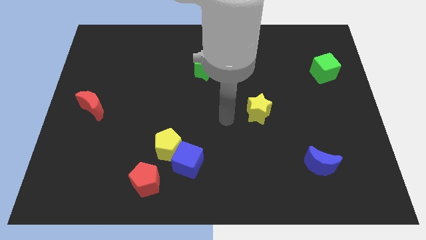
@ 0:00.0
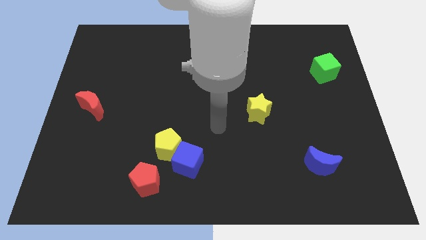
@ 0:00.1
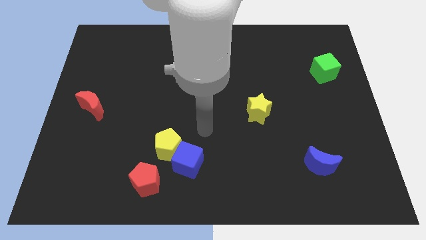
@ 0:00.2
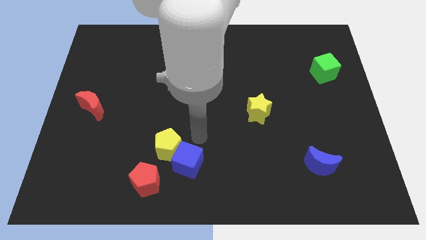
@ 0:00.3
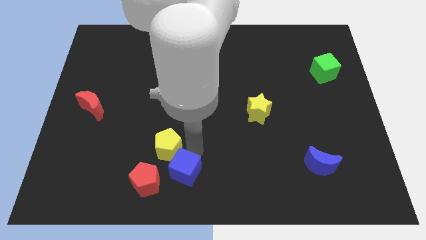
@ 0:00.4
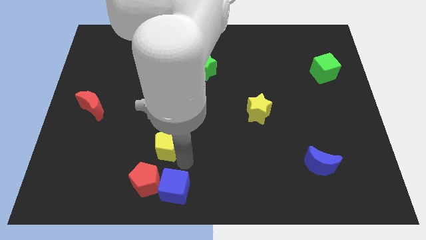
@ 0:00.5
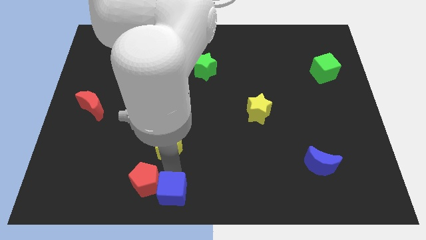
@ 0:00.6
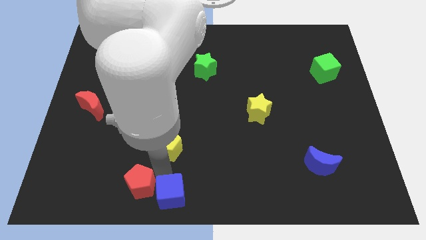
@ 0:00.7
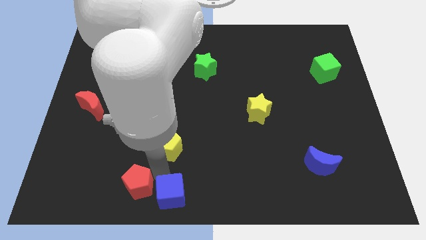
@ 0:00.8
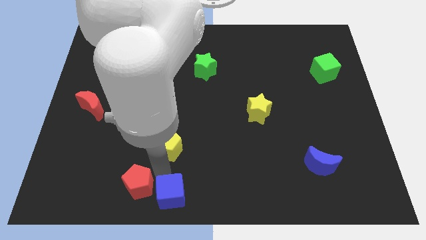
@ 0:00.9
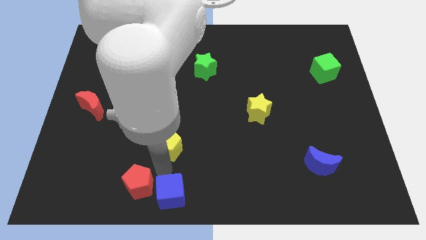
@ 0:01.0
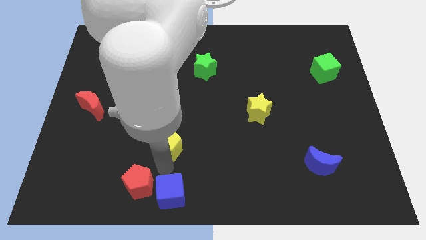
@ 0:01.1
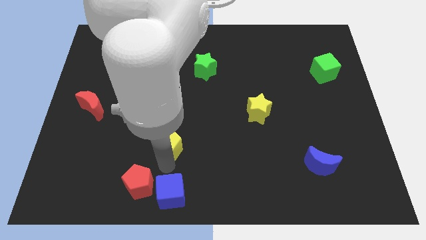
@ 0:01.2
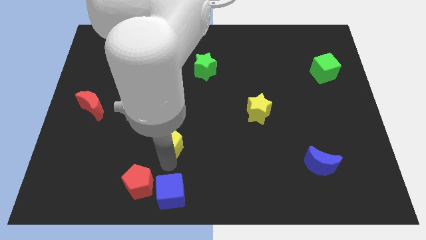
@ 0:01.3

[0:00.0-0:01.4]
move the yellow pentagon away from the blue cube and red pentagon

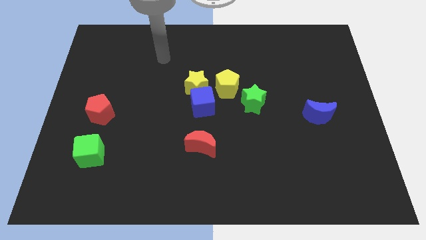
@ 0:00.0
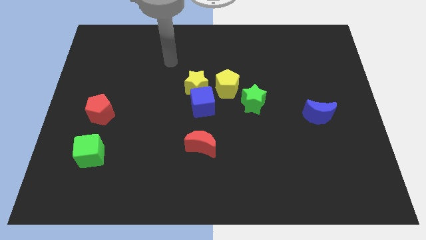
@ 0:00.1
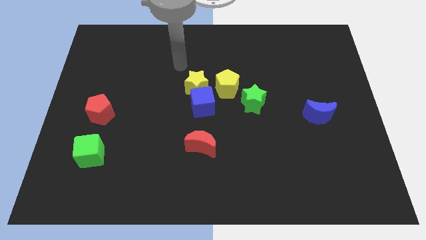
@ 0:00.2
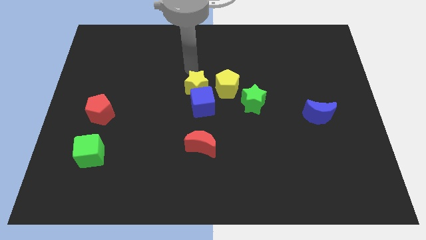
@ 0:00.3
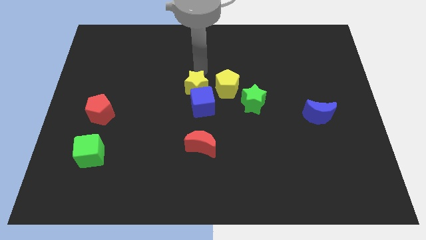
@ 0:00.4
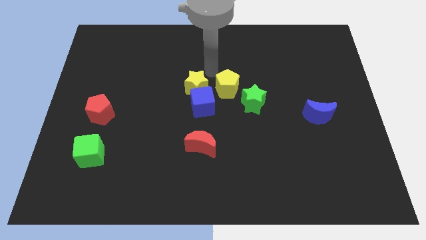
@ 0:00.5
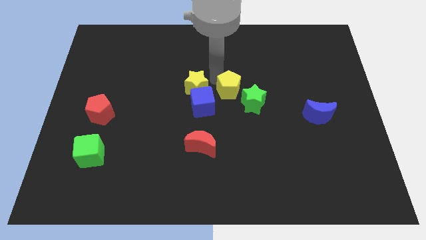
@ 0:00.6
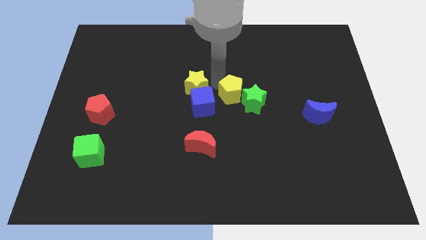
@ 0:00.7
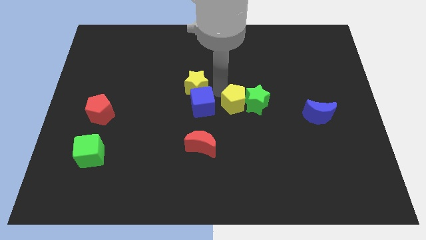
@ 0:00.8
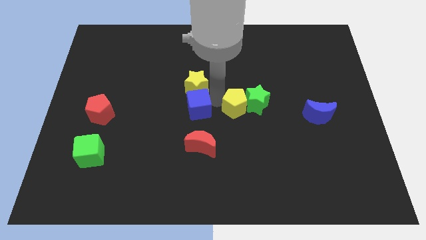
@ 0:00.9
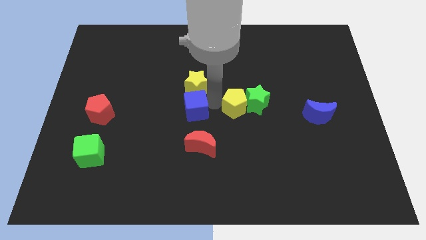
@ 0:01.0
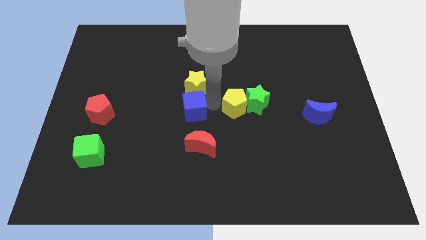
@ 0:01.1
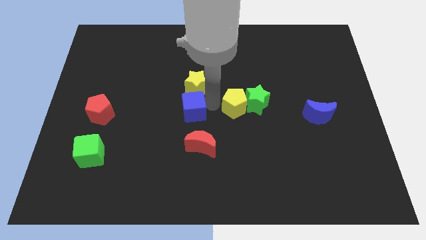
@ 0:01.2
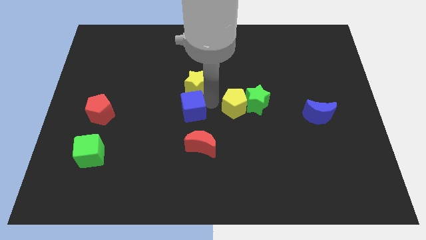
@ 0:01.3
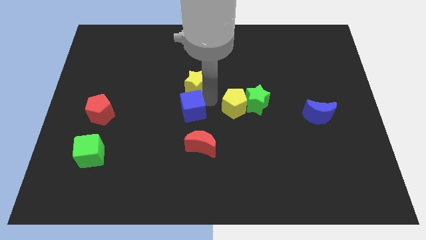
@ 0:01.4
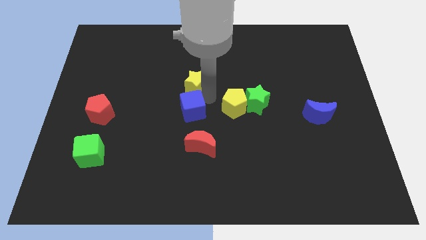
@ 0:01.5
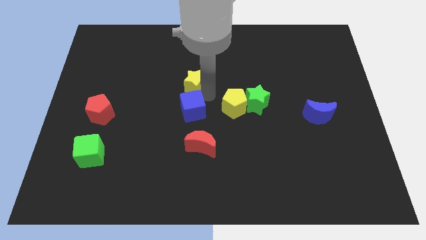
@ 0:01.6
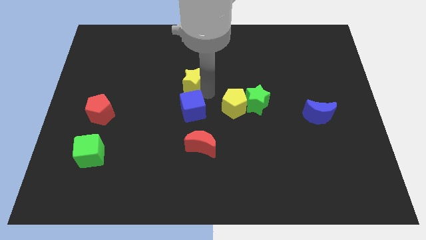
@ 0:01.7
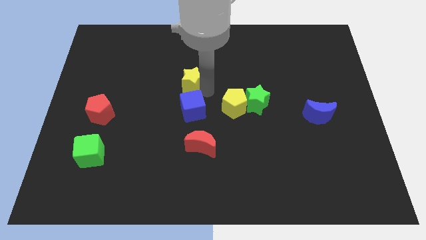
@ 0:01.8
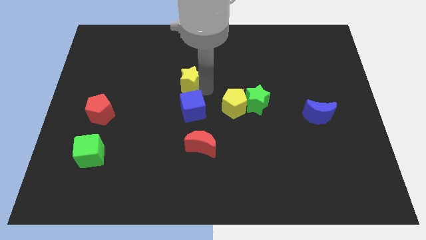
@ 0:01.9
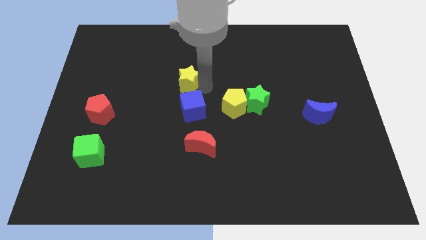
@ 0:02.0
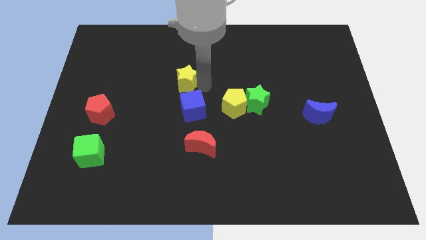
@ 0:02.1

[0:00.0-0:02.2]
separate the yellow star from the blue cube and yellow pentagon

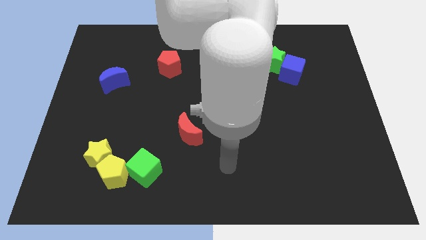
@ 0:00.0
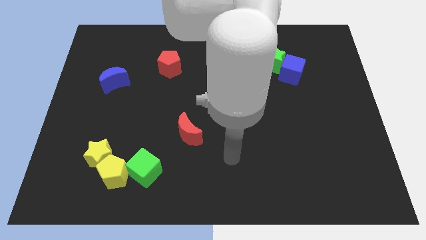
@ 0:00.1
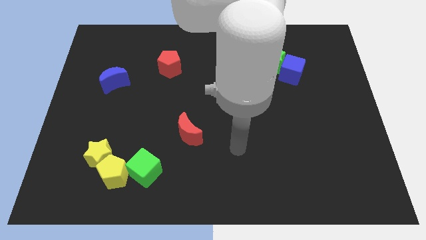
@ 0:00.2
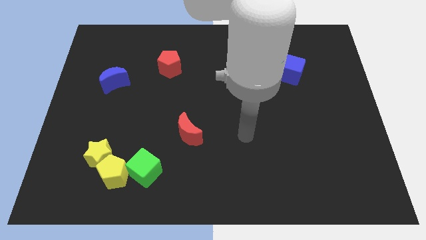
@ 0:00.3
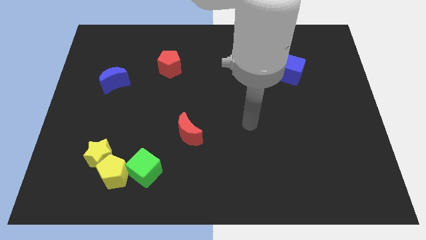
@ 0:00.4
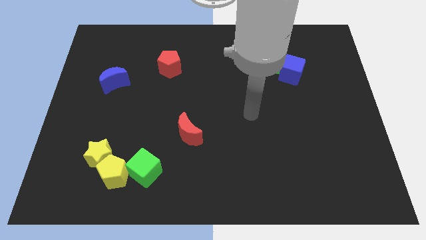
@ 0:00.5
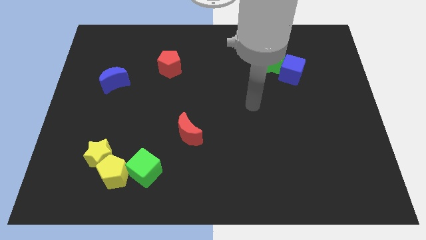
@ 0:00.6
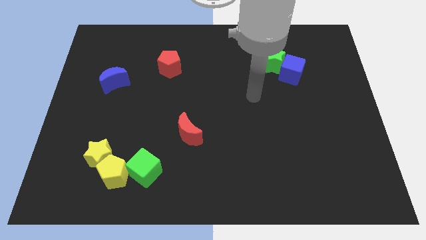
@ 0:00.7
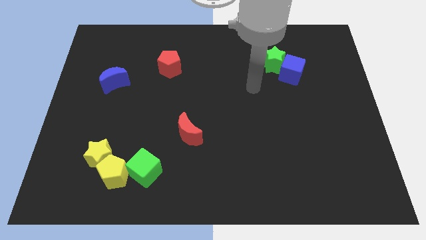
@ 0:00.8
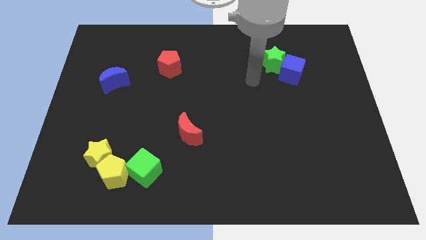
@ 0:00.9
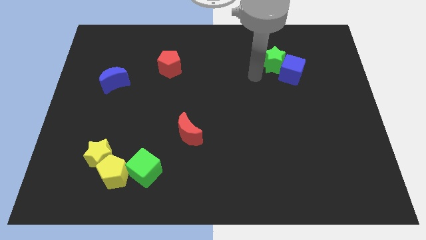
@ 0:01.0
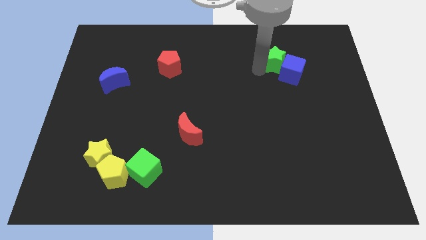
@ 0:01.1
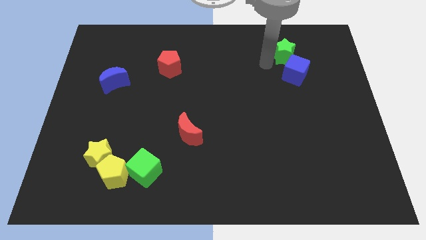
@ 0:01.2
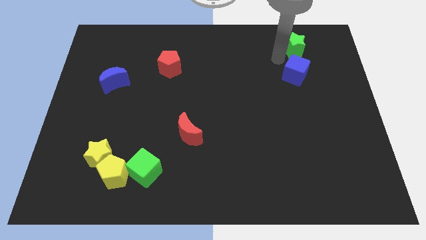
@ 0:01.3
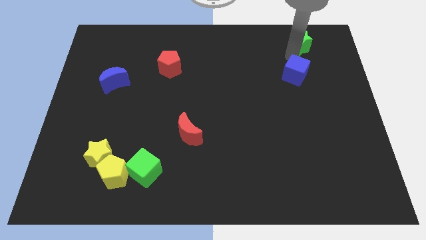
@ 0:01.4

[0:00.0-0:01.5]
move the blue cube away from the green star

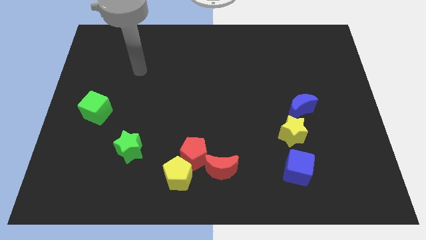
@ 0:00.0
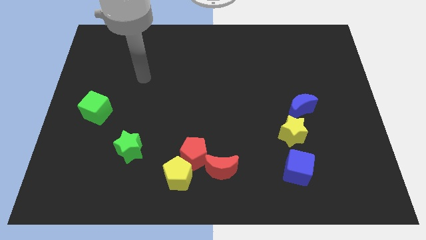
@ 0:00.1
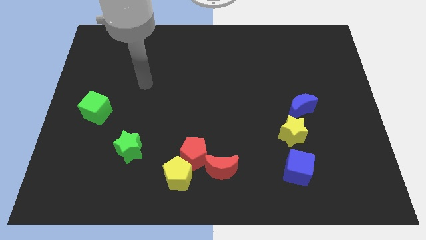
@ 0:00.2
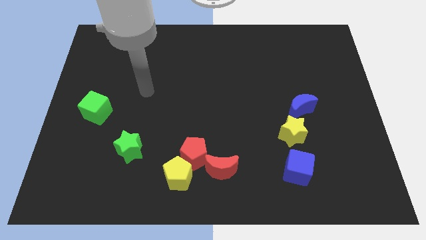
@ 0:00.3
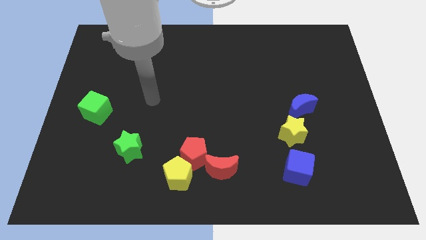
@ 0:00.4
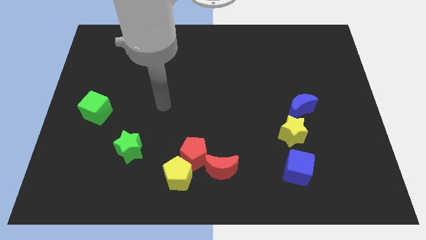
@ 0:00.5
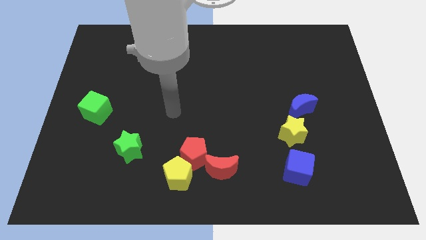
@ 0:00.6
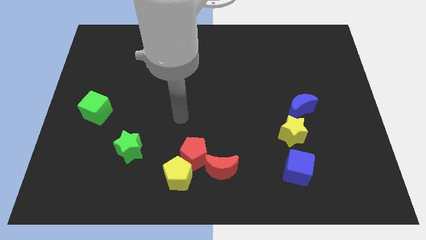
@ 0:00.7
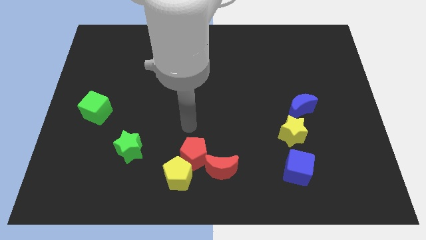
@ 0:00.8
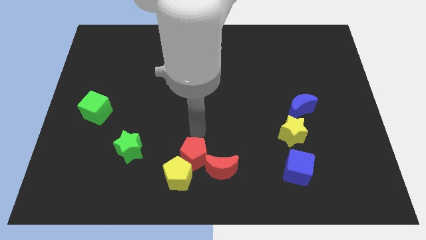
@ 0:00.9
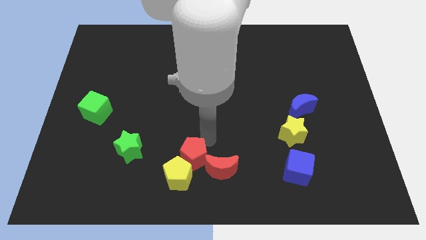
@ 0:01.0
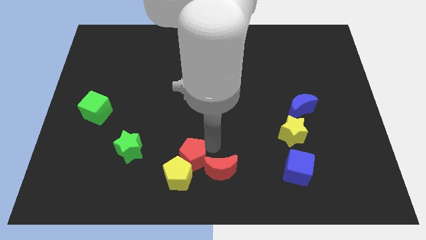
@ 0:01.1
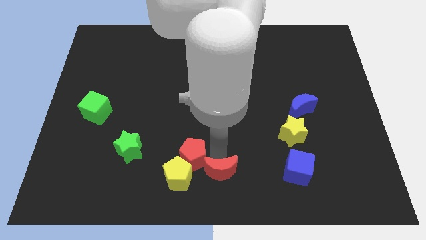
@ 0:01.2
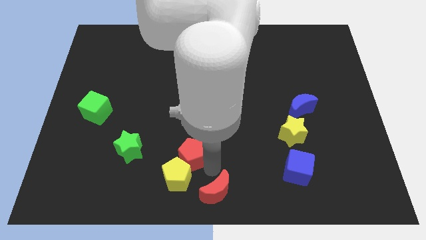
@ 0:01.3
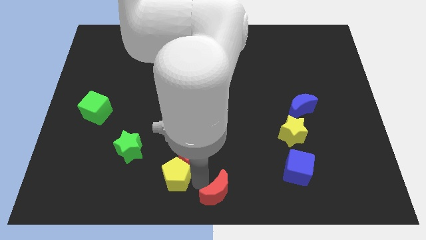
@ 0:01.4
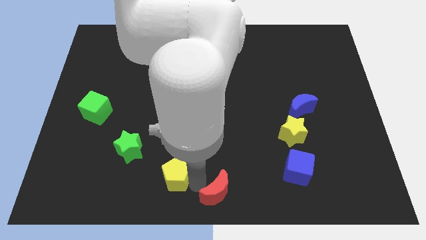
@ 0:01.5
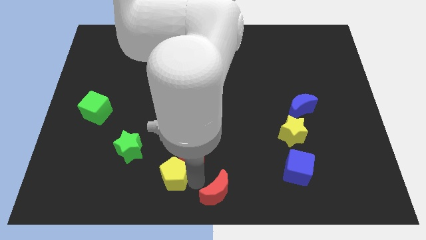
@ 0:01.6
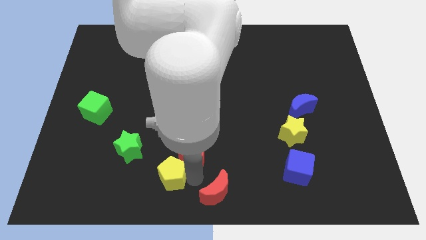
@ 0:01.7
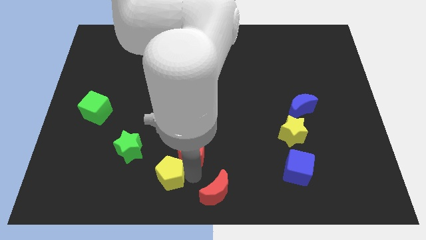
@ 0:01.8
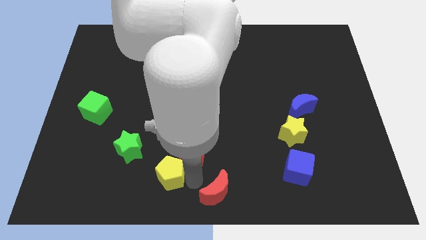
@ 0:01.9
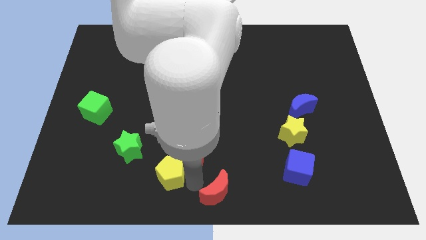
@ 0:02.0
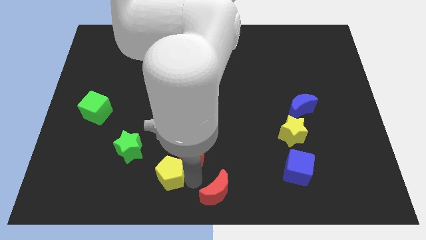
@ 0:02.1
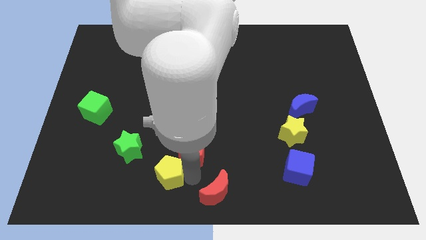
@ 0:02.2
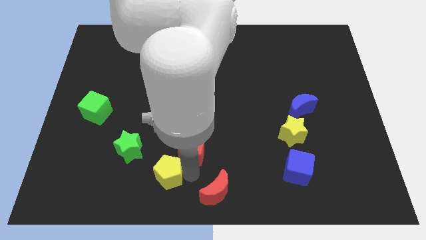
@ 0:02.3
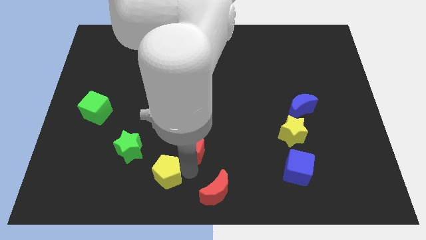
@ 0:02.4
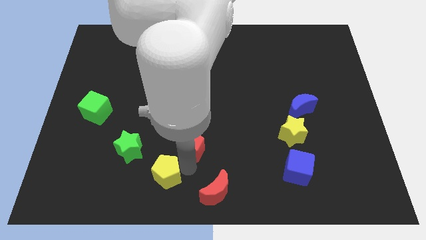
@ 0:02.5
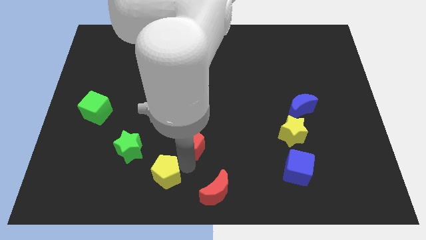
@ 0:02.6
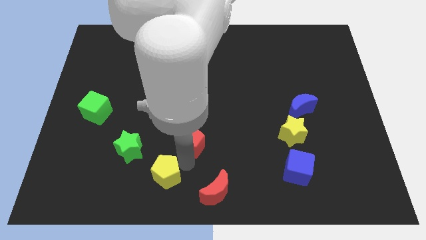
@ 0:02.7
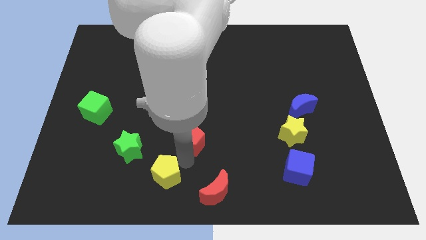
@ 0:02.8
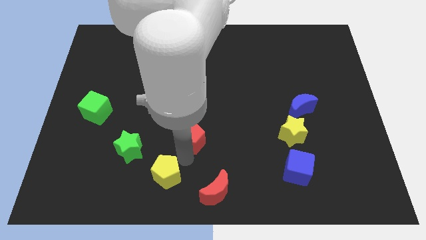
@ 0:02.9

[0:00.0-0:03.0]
move the red pentagon away from the yellow pentagon and red moon

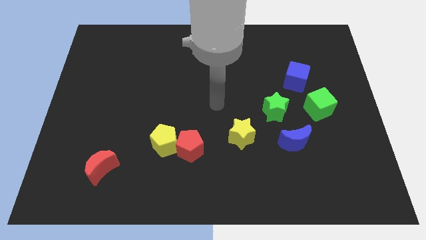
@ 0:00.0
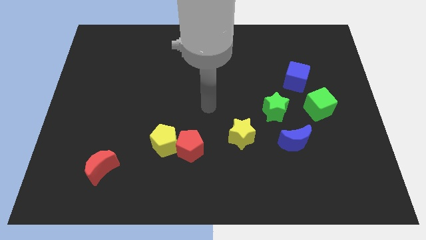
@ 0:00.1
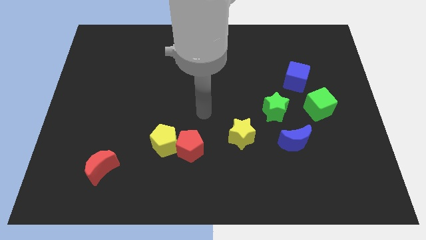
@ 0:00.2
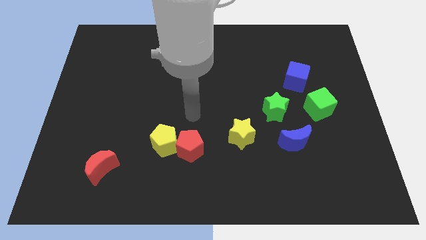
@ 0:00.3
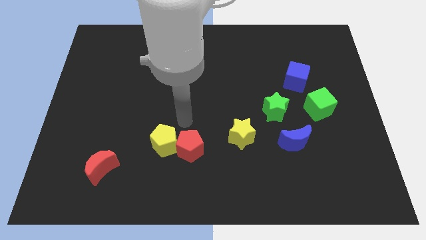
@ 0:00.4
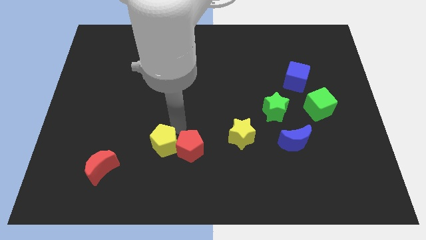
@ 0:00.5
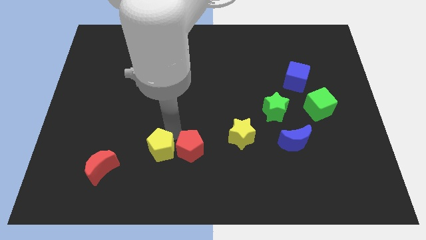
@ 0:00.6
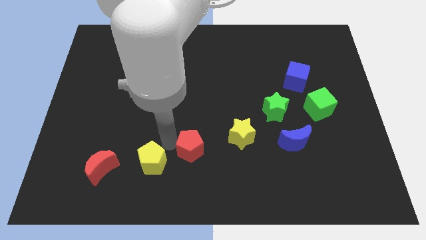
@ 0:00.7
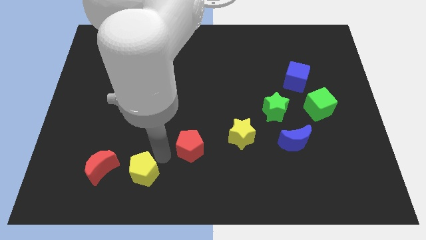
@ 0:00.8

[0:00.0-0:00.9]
pull the red pentagon apart from the yellow pentagon

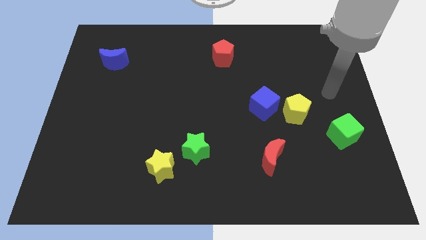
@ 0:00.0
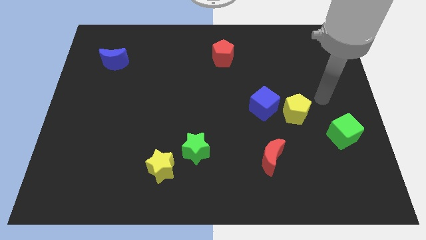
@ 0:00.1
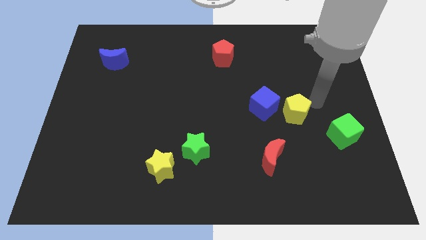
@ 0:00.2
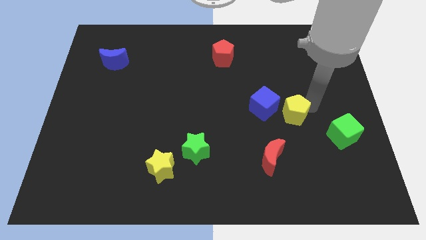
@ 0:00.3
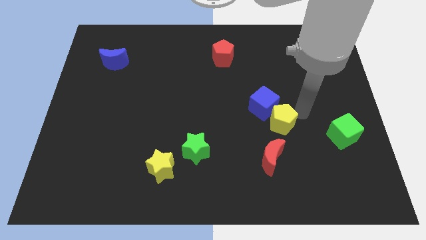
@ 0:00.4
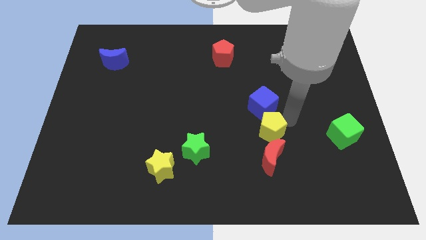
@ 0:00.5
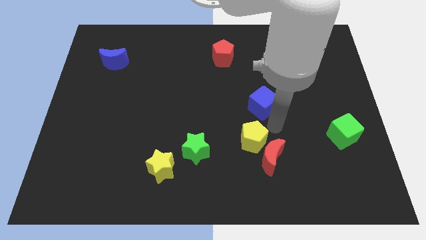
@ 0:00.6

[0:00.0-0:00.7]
move the blue cube away from the yellow pentagon
